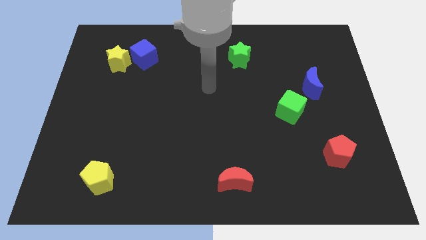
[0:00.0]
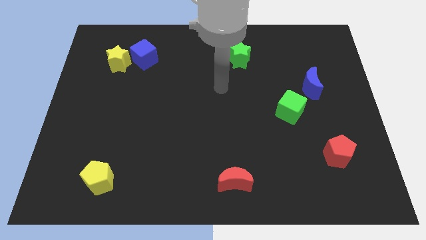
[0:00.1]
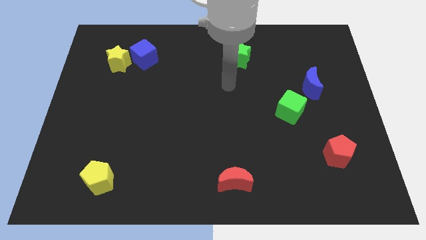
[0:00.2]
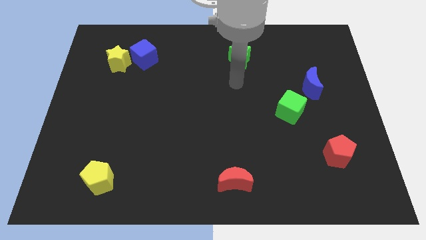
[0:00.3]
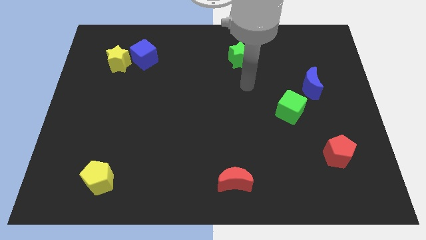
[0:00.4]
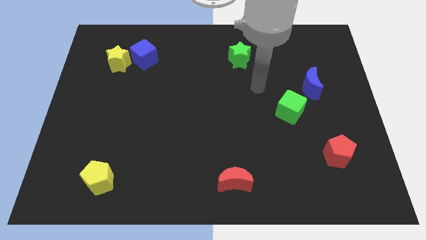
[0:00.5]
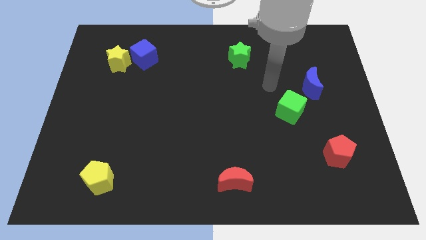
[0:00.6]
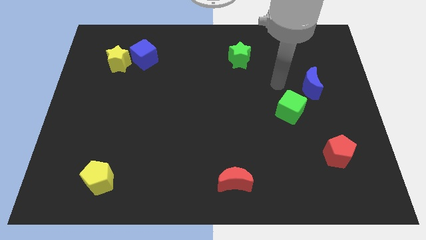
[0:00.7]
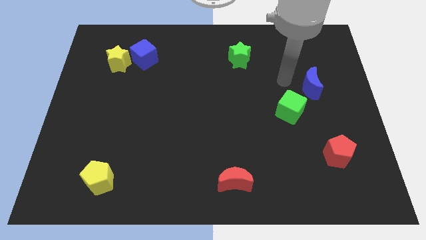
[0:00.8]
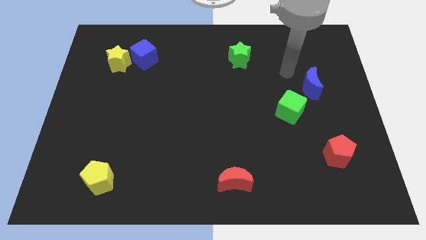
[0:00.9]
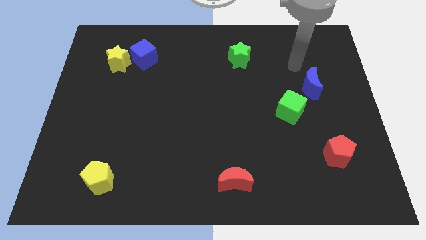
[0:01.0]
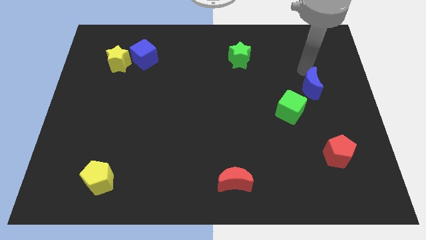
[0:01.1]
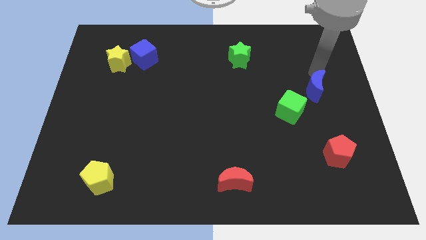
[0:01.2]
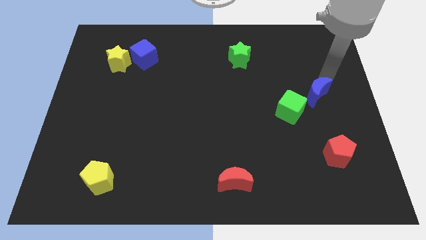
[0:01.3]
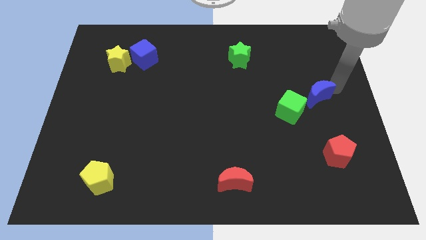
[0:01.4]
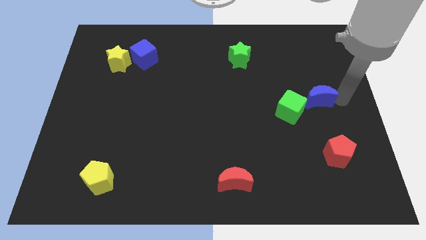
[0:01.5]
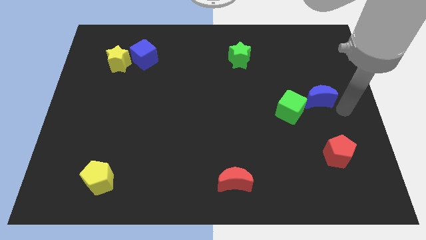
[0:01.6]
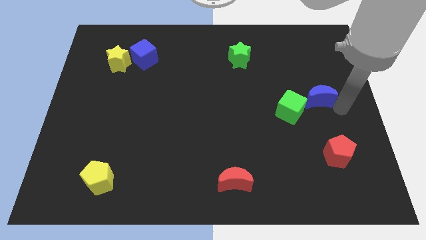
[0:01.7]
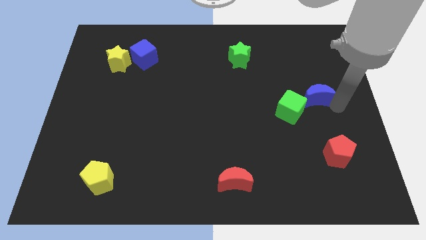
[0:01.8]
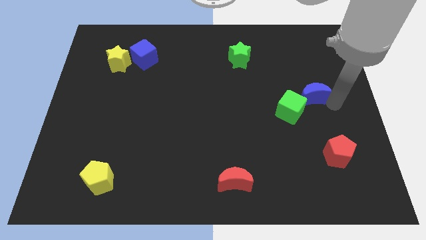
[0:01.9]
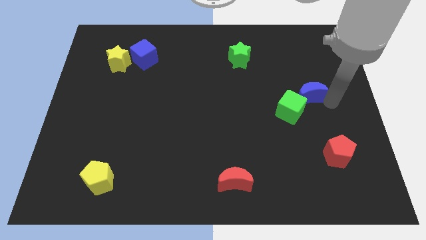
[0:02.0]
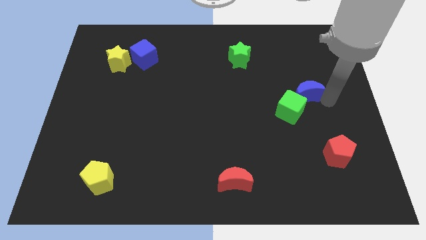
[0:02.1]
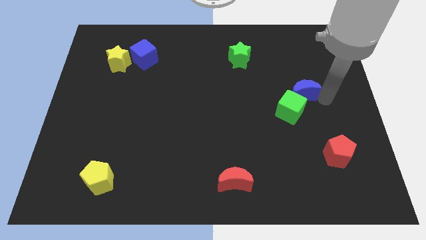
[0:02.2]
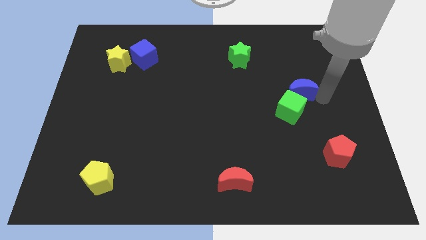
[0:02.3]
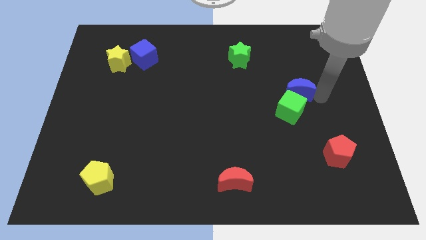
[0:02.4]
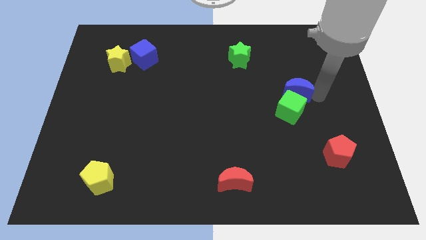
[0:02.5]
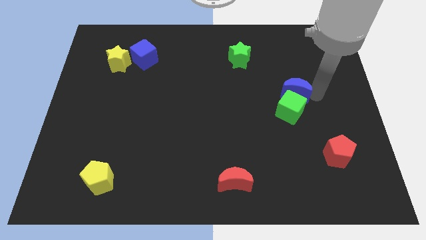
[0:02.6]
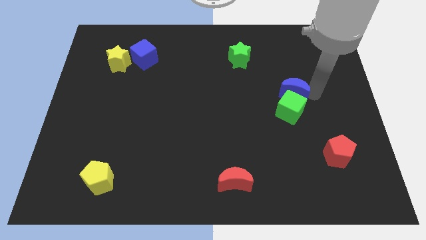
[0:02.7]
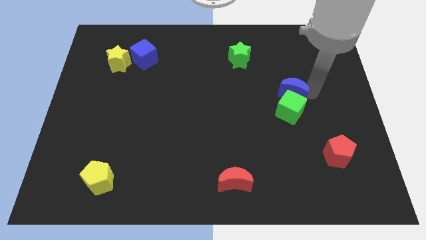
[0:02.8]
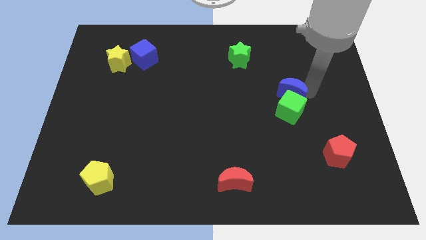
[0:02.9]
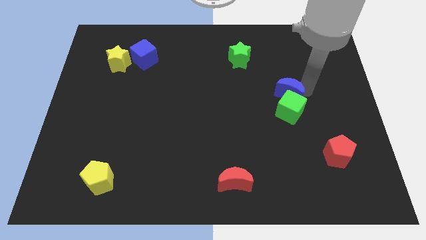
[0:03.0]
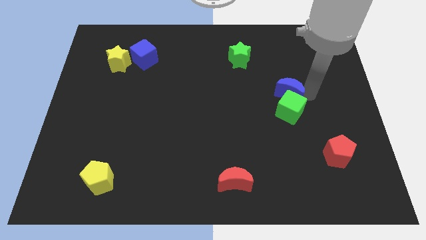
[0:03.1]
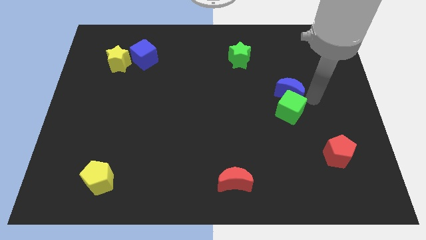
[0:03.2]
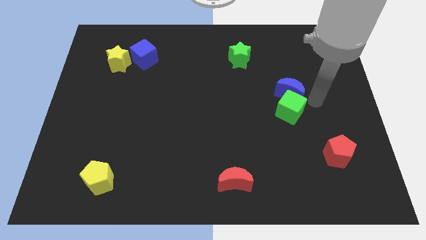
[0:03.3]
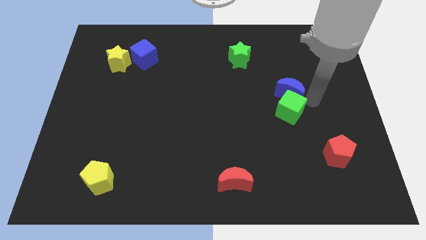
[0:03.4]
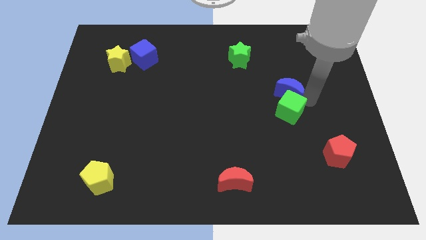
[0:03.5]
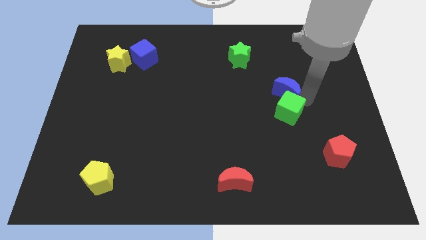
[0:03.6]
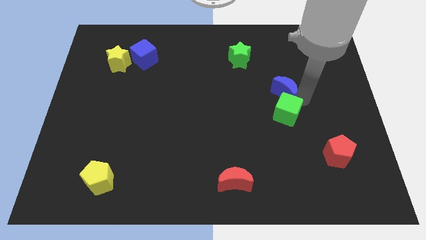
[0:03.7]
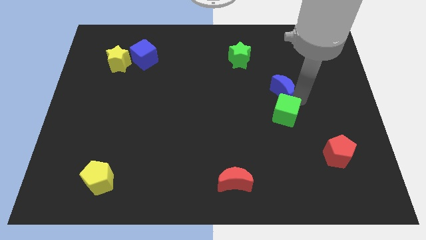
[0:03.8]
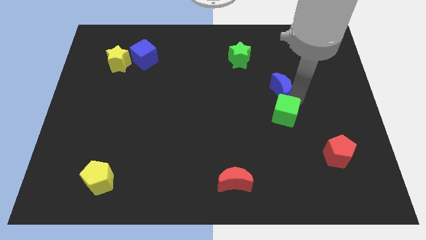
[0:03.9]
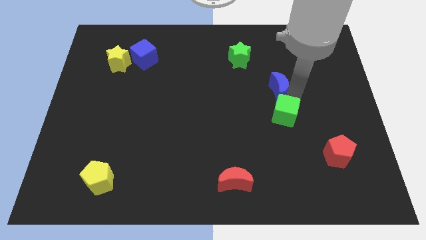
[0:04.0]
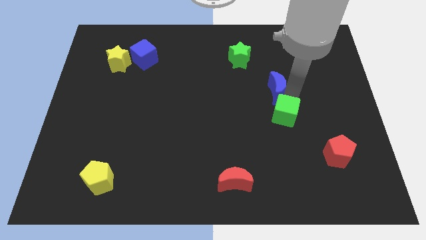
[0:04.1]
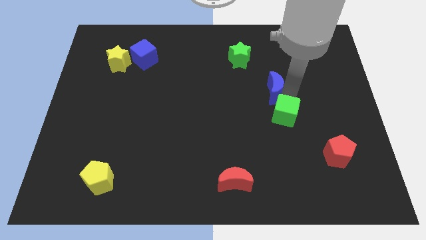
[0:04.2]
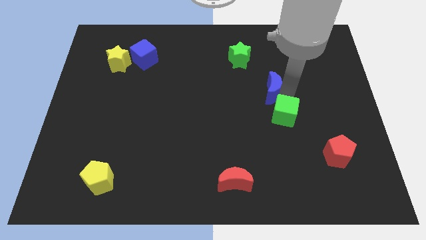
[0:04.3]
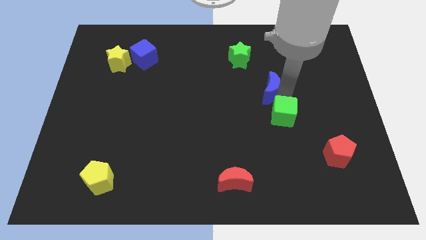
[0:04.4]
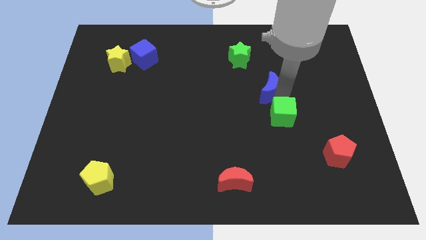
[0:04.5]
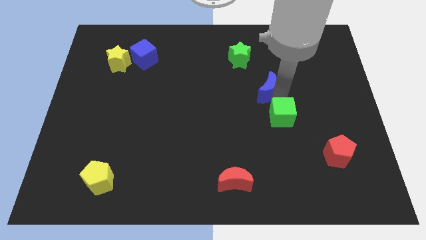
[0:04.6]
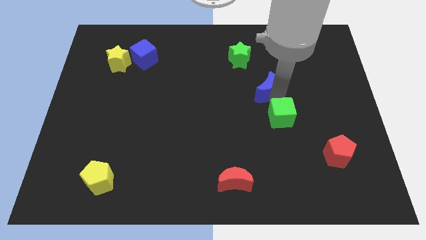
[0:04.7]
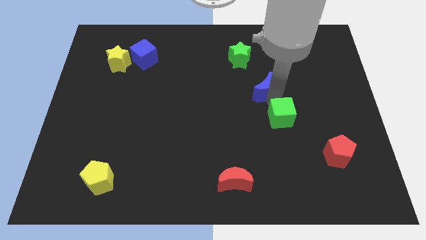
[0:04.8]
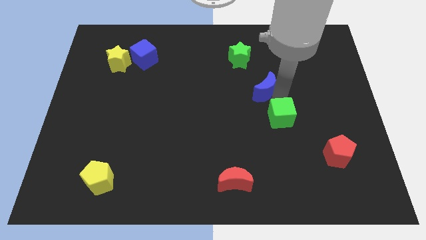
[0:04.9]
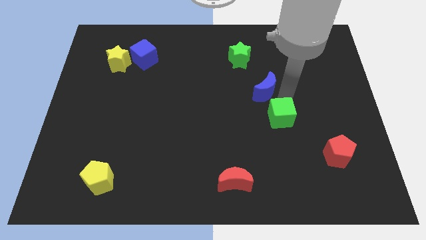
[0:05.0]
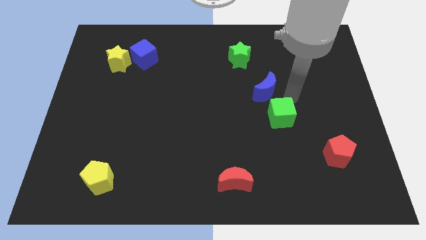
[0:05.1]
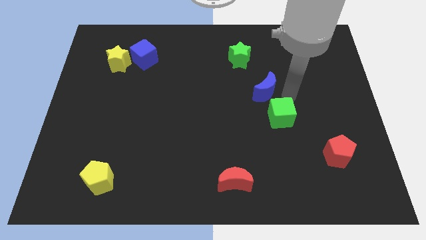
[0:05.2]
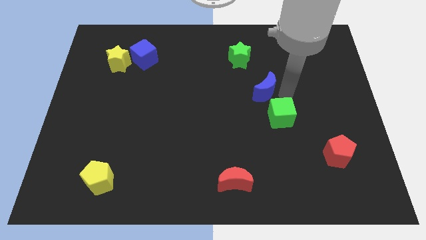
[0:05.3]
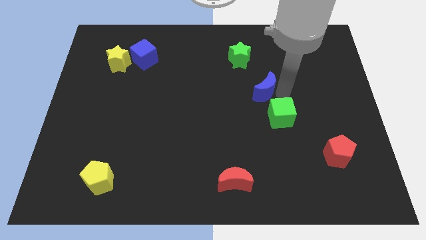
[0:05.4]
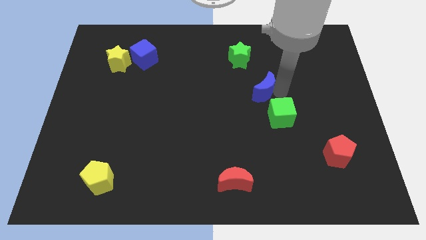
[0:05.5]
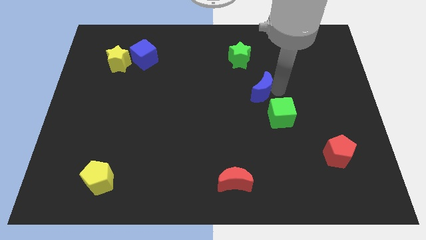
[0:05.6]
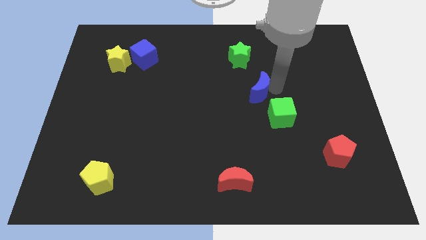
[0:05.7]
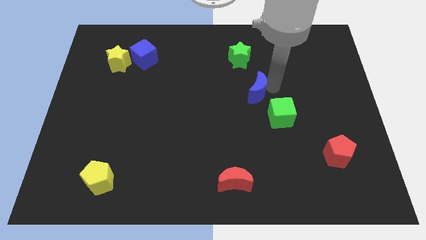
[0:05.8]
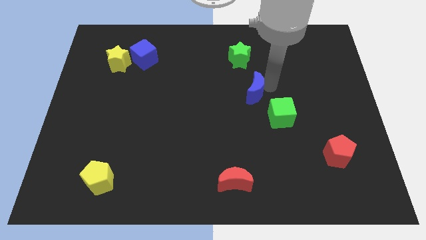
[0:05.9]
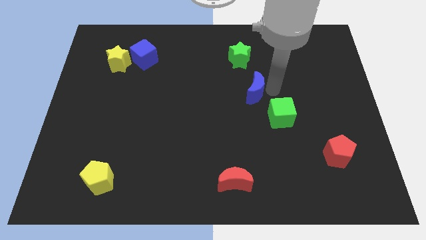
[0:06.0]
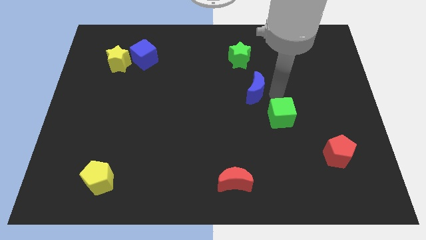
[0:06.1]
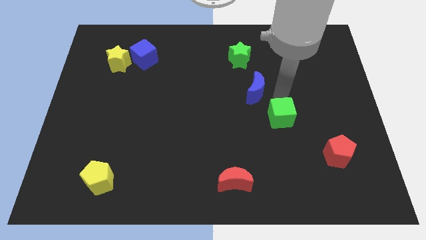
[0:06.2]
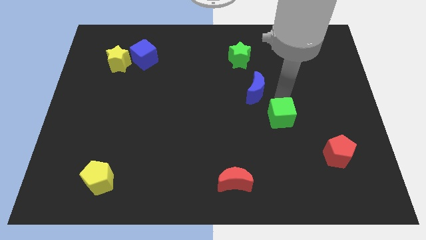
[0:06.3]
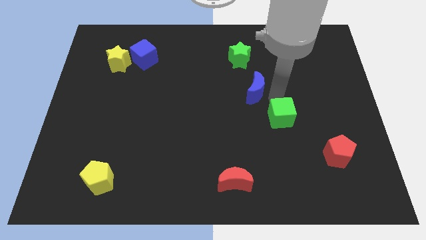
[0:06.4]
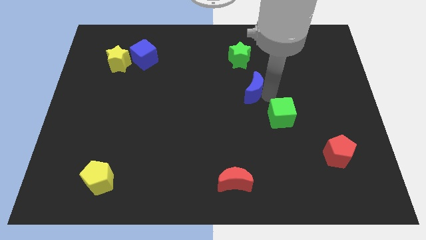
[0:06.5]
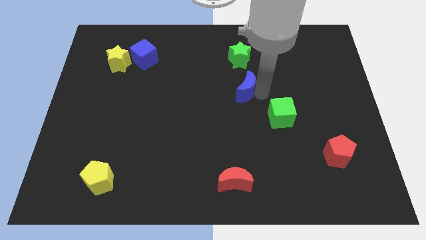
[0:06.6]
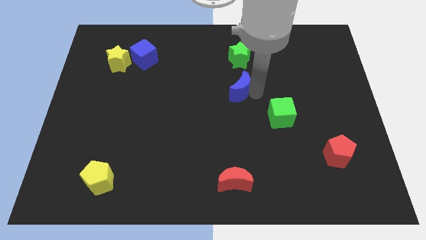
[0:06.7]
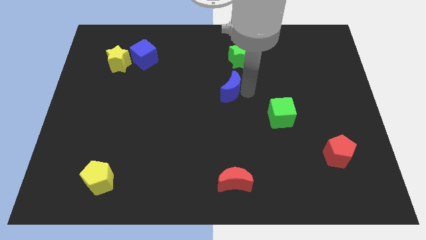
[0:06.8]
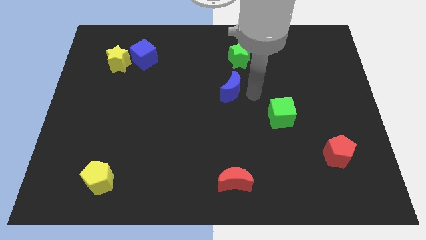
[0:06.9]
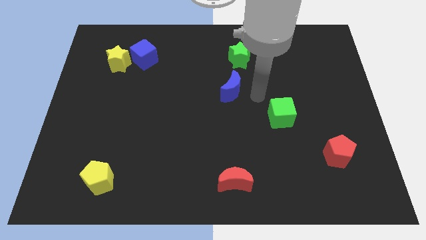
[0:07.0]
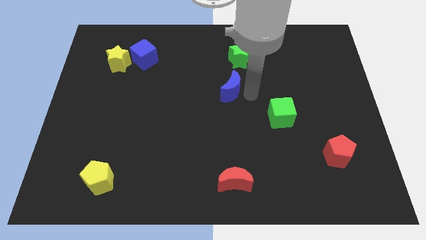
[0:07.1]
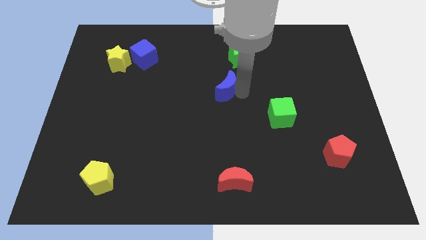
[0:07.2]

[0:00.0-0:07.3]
slide the blue moon left

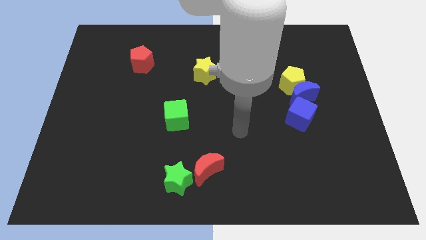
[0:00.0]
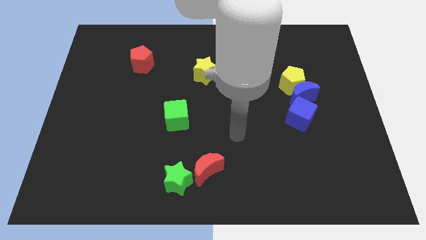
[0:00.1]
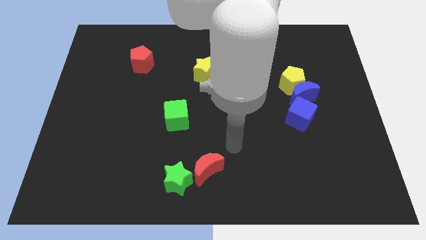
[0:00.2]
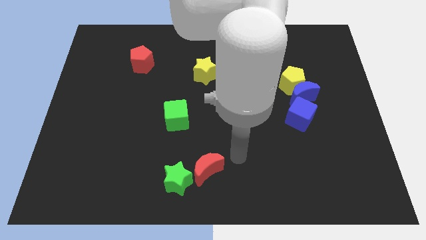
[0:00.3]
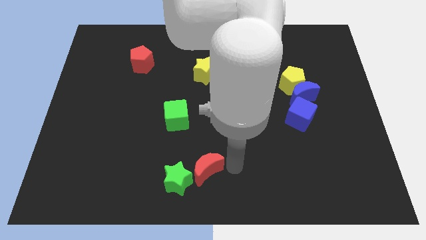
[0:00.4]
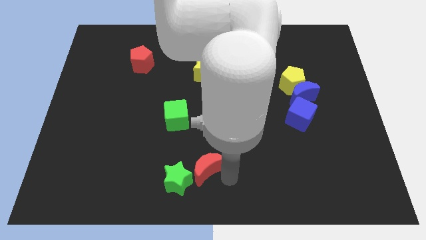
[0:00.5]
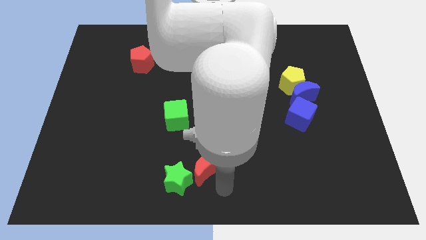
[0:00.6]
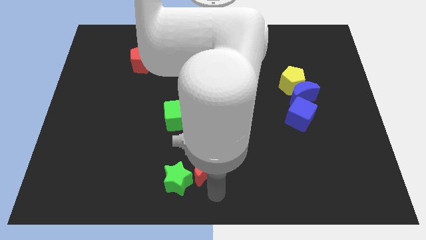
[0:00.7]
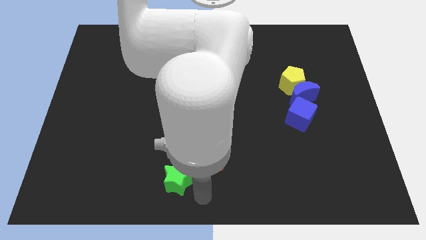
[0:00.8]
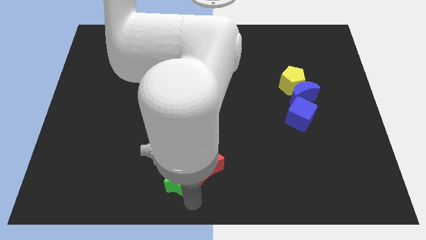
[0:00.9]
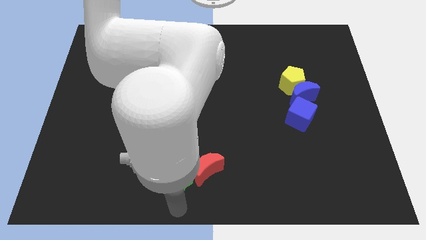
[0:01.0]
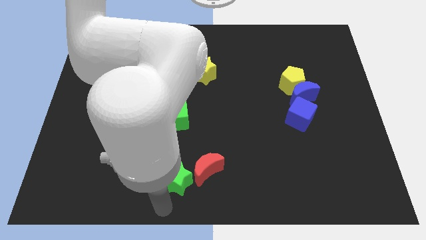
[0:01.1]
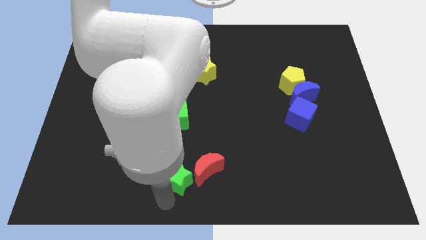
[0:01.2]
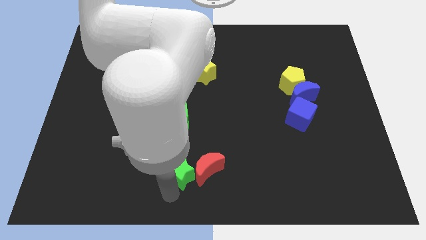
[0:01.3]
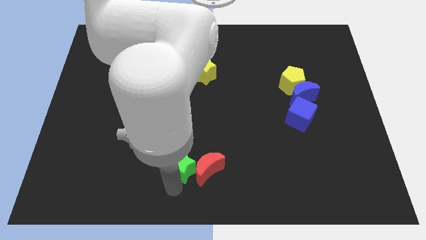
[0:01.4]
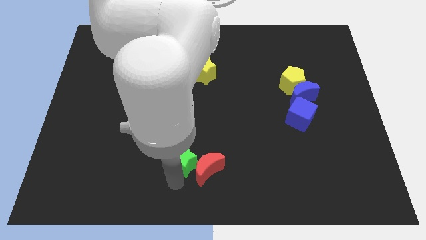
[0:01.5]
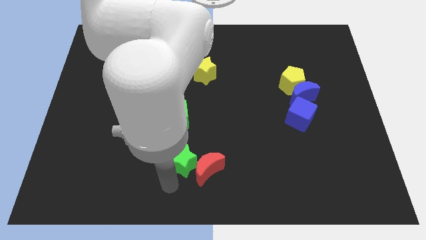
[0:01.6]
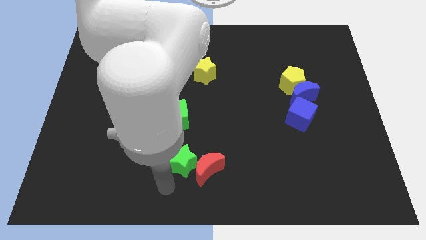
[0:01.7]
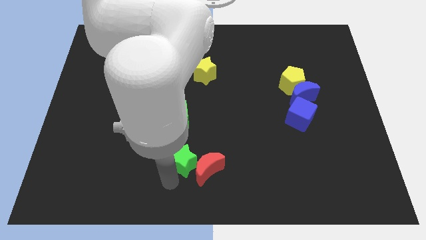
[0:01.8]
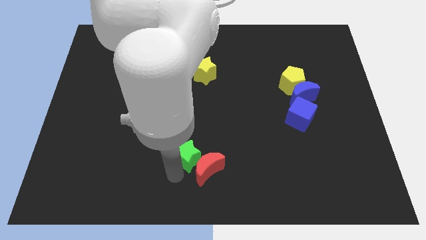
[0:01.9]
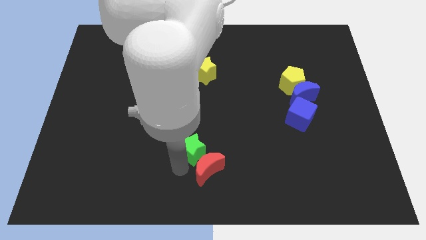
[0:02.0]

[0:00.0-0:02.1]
push the green star a bit upwards
